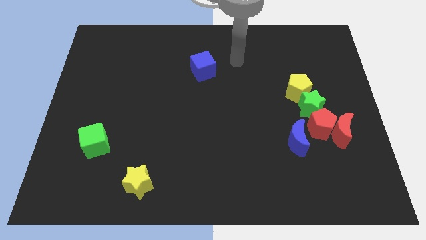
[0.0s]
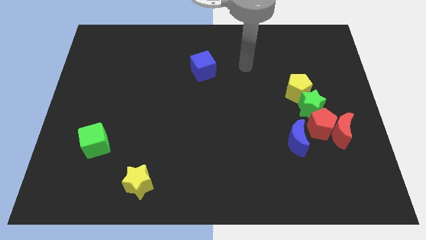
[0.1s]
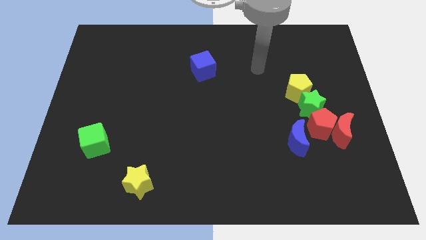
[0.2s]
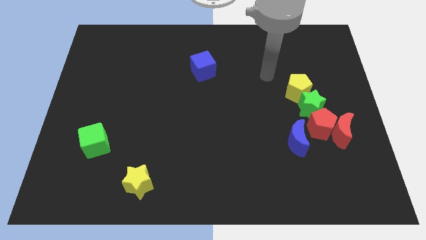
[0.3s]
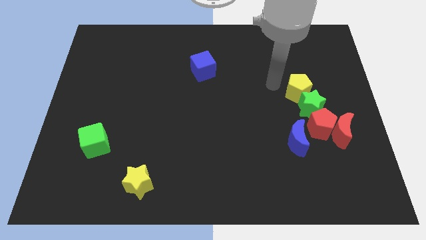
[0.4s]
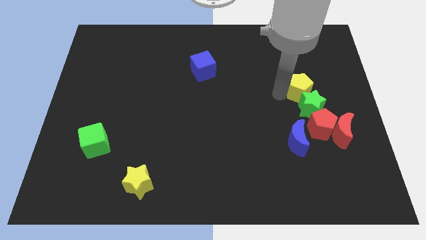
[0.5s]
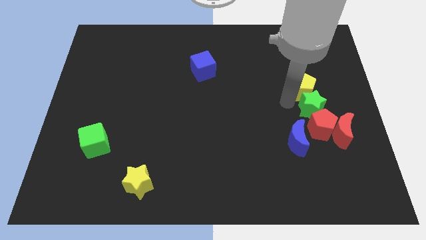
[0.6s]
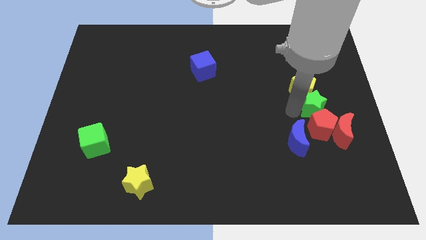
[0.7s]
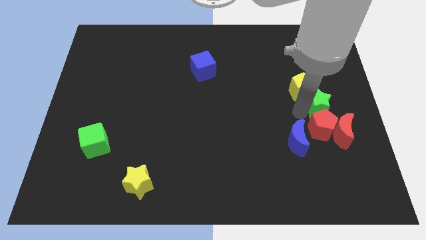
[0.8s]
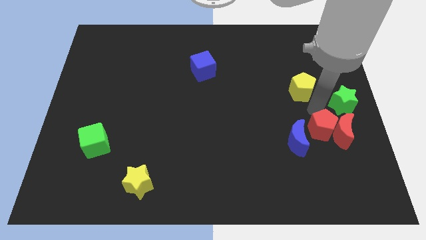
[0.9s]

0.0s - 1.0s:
pull the yellow pentagon apart from the green star

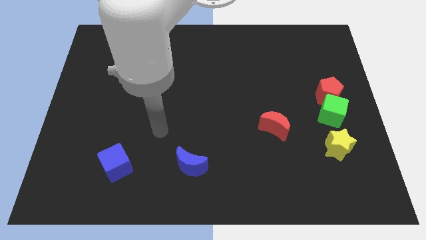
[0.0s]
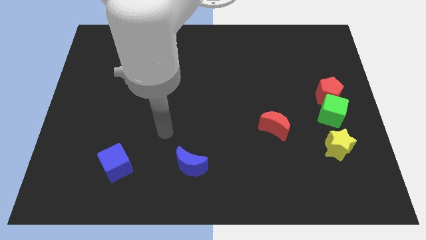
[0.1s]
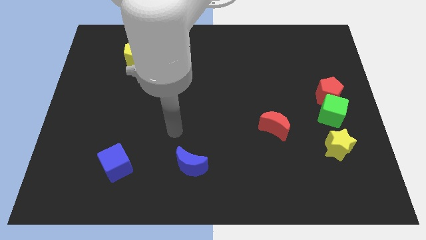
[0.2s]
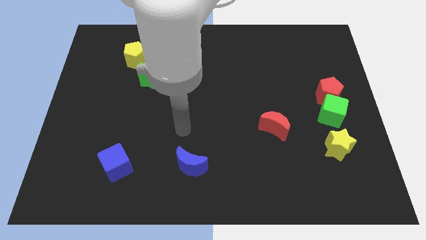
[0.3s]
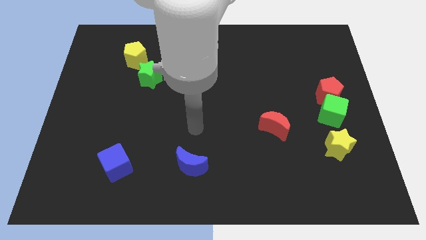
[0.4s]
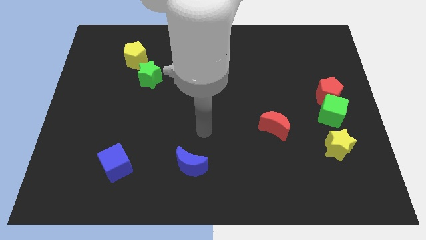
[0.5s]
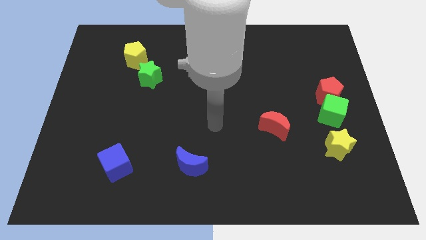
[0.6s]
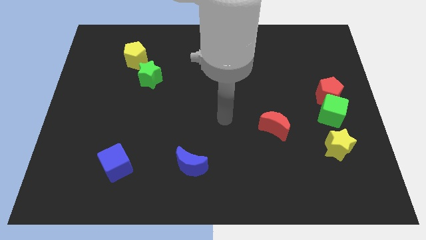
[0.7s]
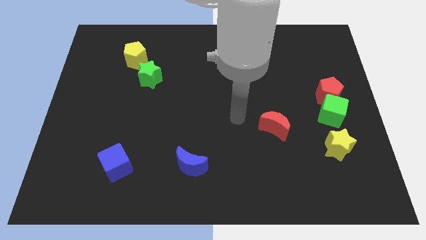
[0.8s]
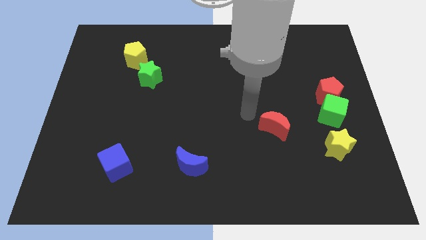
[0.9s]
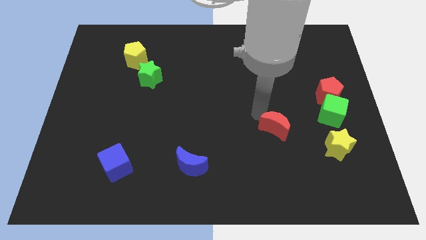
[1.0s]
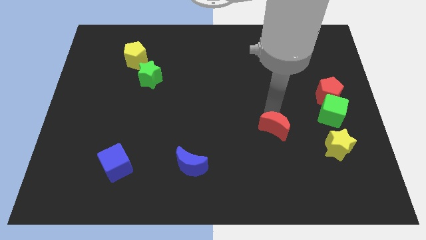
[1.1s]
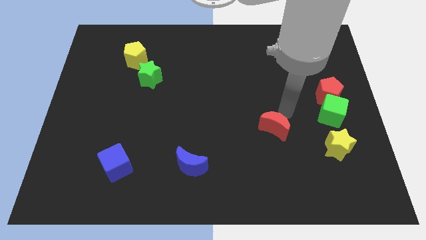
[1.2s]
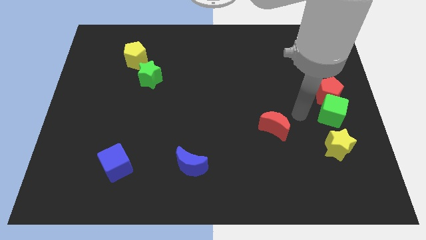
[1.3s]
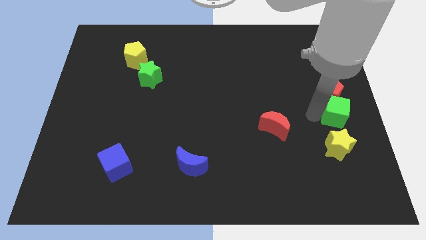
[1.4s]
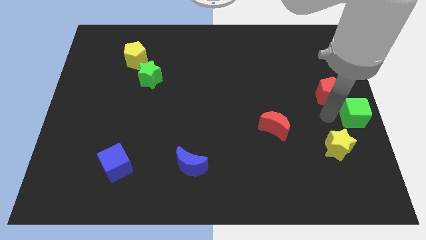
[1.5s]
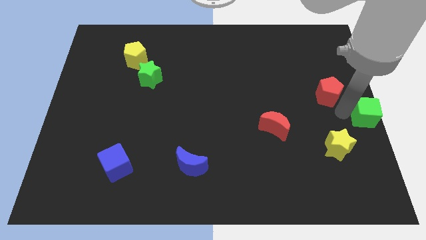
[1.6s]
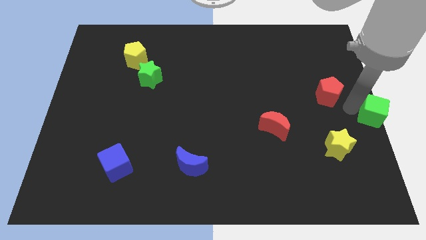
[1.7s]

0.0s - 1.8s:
move the red pentagon away from the green cube

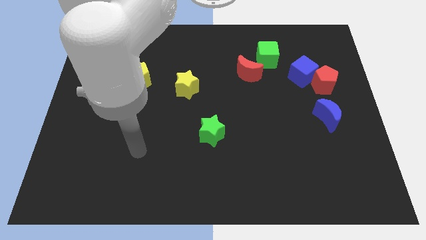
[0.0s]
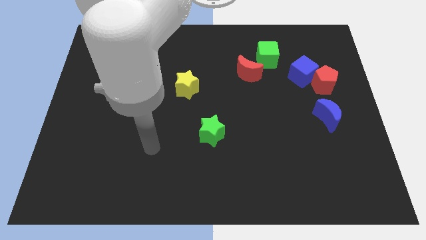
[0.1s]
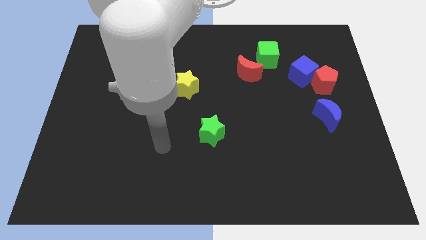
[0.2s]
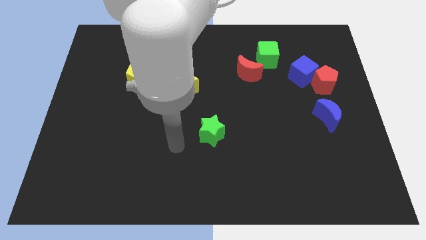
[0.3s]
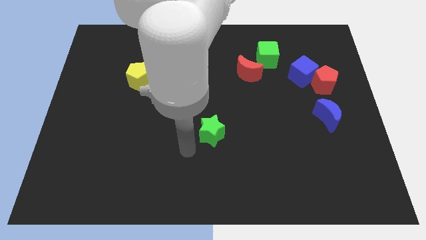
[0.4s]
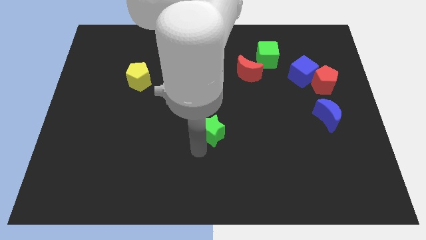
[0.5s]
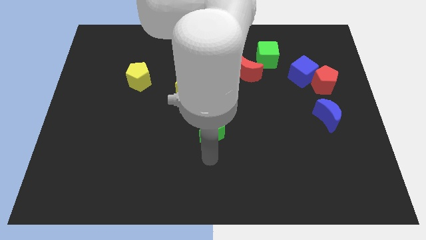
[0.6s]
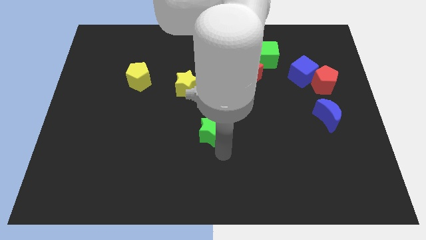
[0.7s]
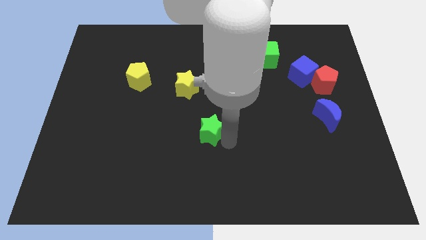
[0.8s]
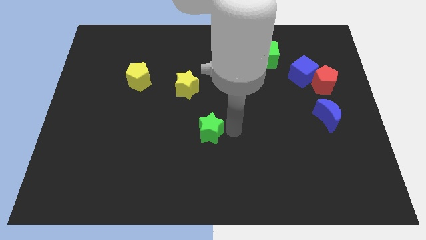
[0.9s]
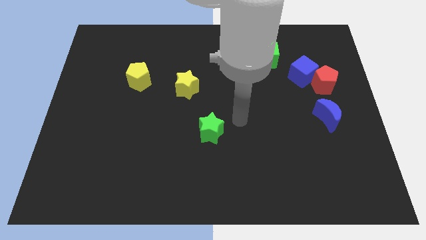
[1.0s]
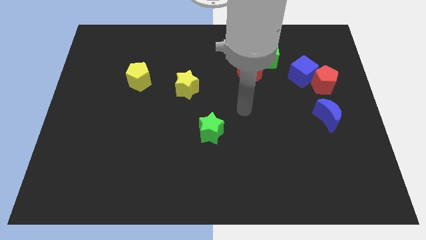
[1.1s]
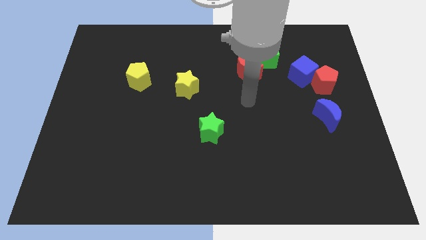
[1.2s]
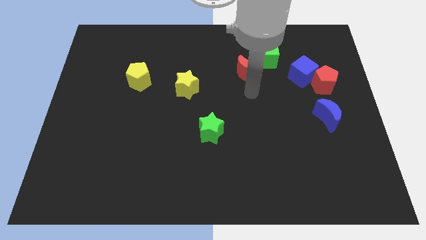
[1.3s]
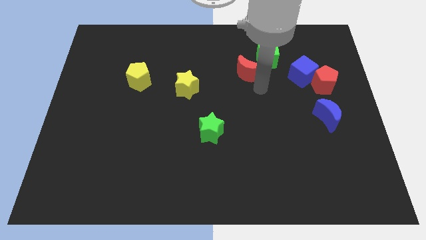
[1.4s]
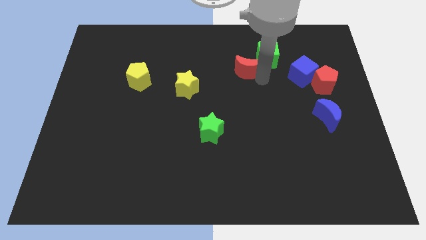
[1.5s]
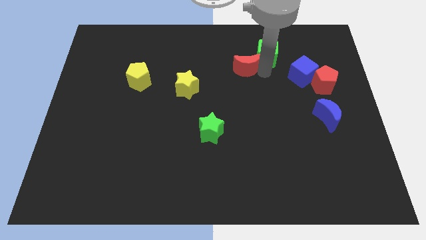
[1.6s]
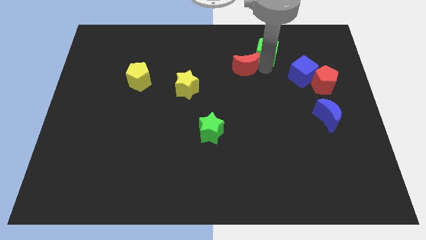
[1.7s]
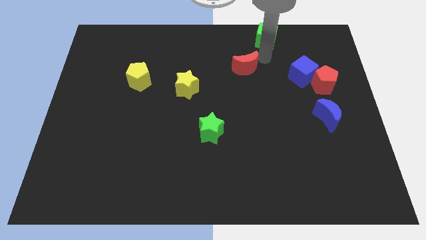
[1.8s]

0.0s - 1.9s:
separate the red moon from the green cube

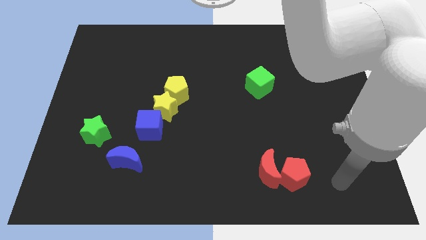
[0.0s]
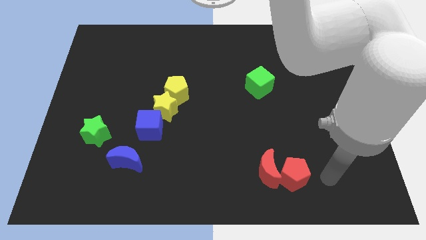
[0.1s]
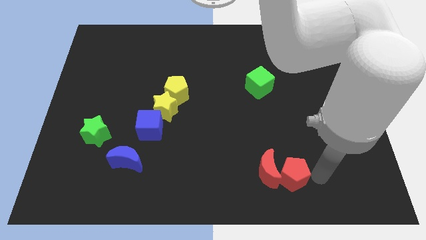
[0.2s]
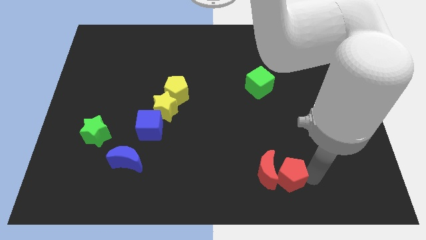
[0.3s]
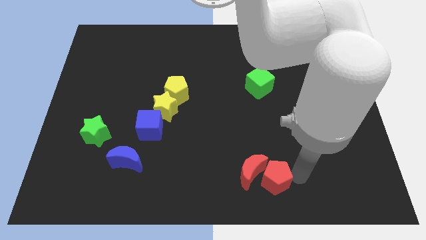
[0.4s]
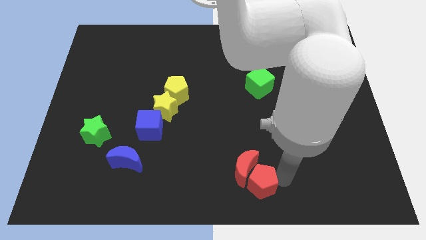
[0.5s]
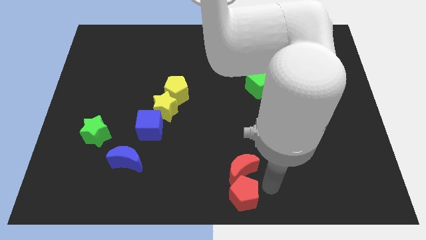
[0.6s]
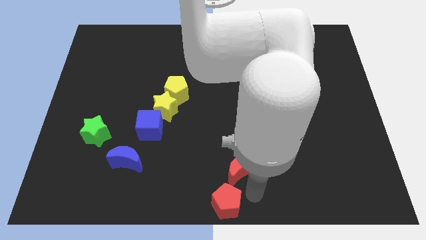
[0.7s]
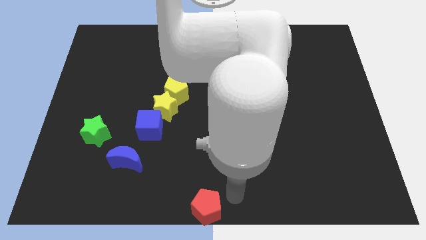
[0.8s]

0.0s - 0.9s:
move the red moon away from the red pentagon

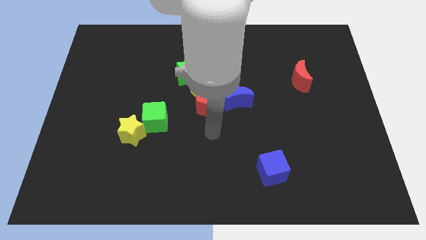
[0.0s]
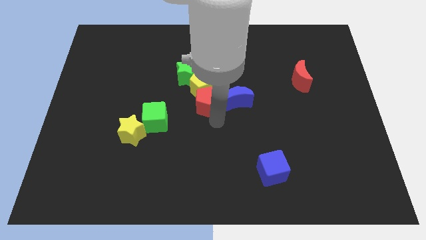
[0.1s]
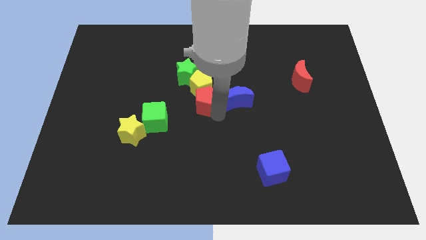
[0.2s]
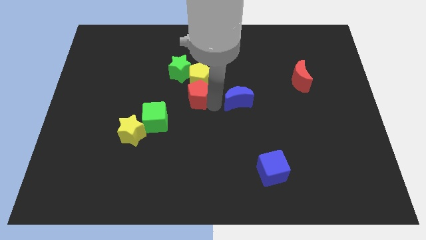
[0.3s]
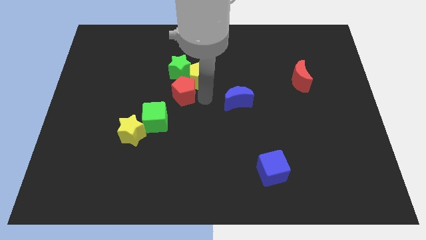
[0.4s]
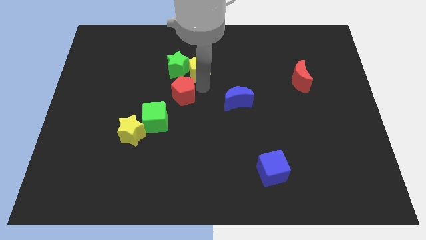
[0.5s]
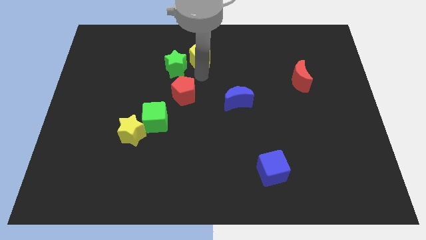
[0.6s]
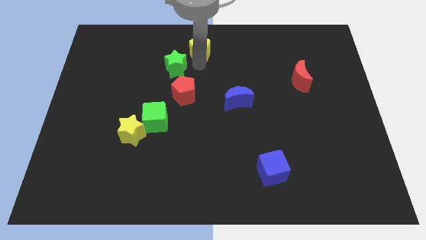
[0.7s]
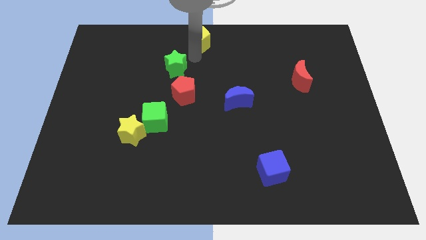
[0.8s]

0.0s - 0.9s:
separate the green star from the yellow pentagon

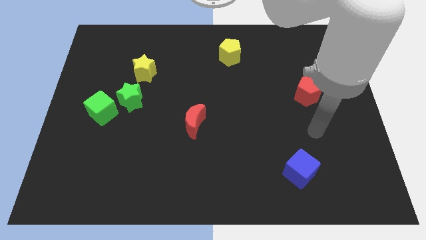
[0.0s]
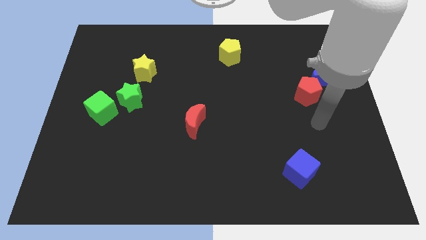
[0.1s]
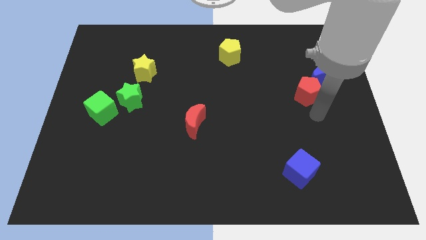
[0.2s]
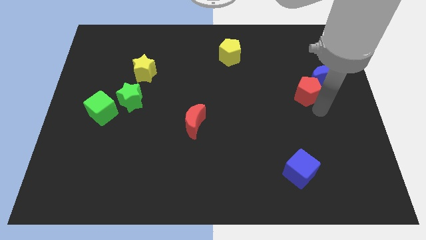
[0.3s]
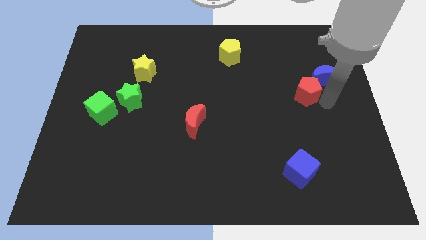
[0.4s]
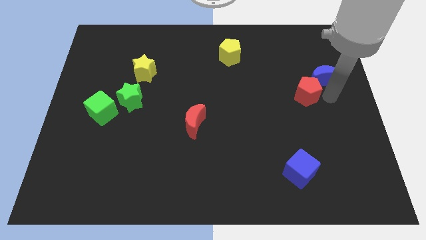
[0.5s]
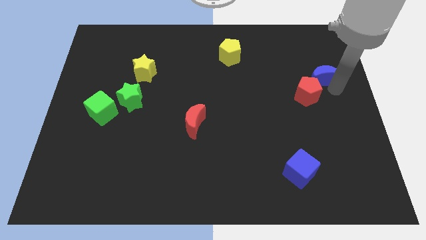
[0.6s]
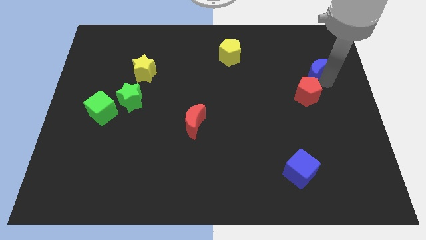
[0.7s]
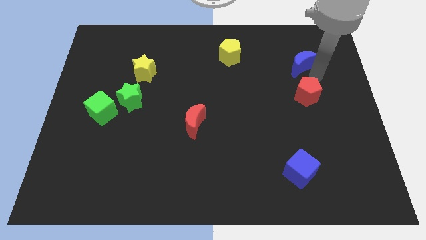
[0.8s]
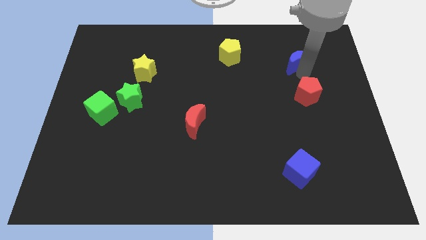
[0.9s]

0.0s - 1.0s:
pull the red pentagon apart from the blue moon

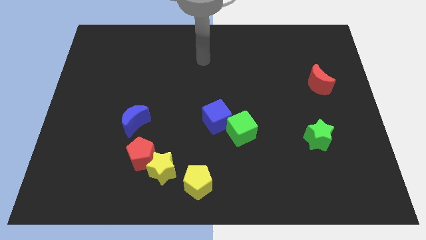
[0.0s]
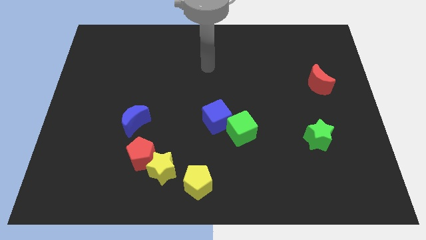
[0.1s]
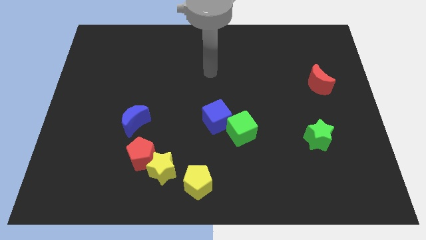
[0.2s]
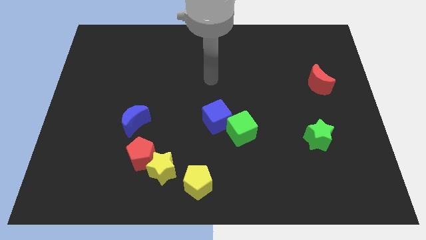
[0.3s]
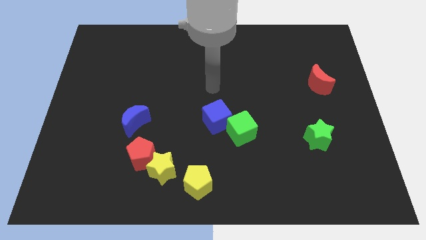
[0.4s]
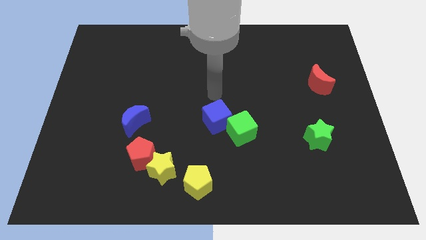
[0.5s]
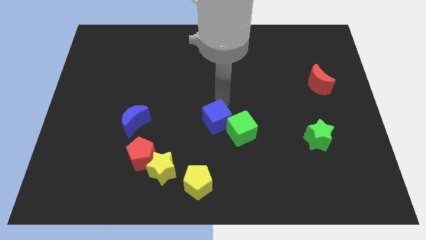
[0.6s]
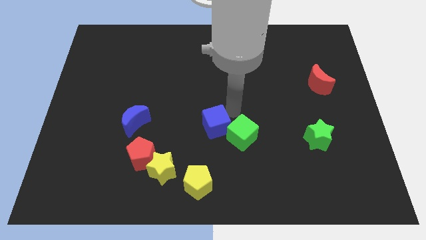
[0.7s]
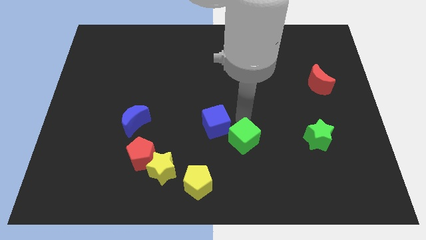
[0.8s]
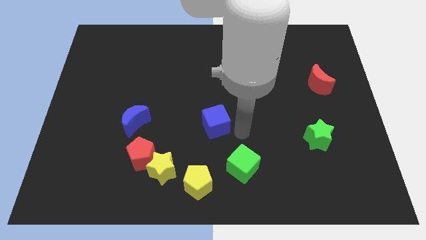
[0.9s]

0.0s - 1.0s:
separate the blue cube from the green cube

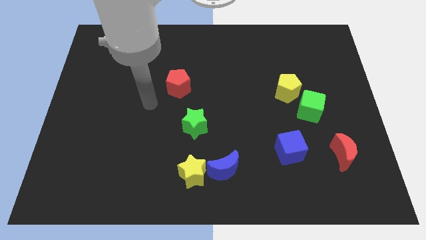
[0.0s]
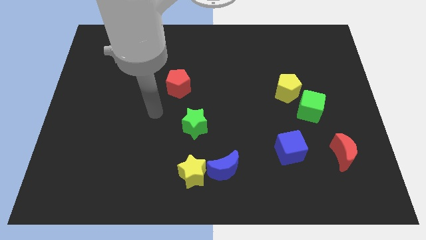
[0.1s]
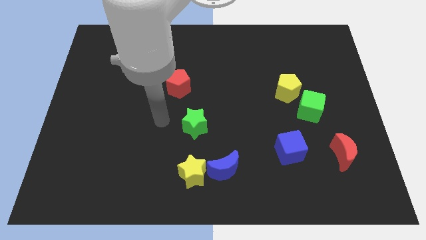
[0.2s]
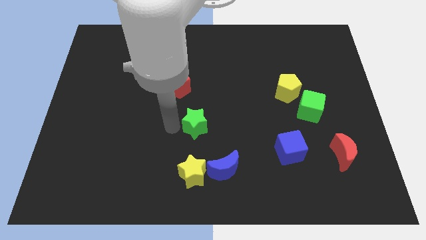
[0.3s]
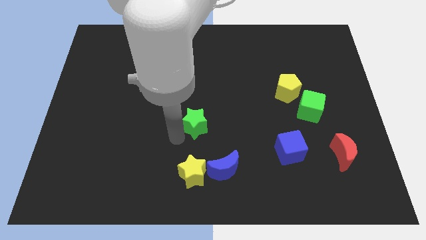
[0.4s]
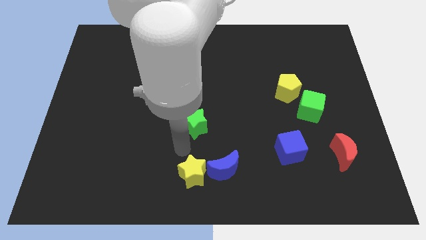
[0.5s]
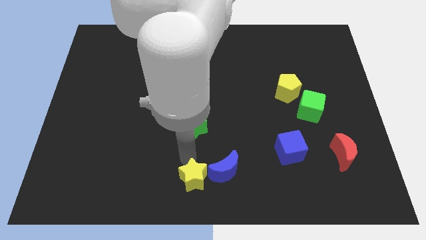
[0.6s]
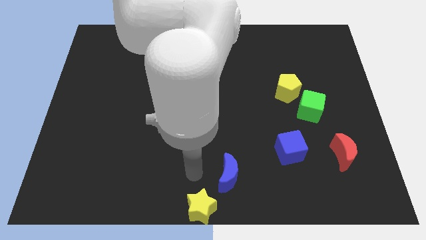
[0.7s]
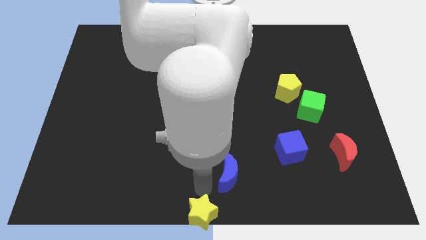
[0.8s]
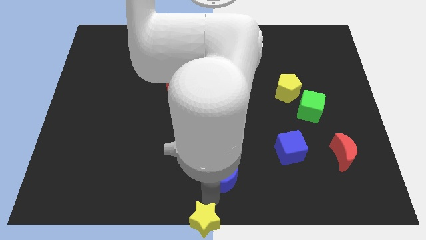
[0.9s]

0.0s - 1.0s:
move the blue moon away from the yellow star
